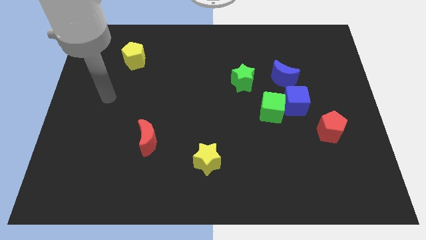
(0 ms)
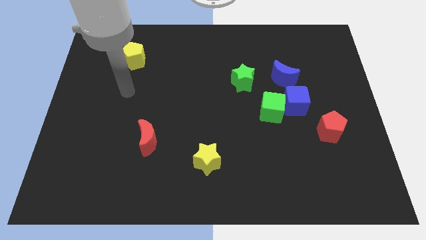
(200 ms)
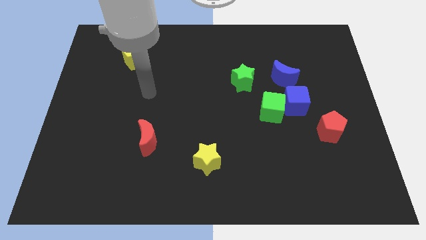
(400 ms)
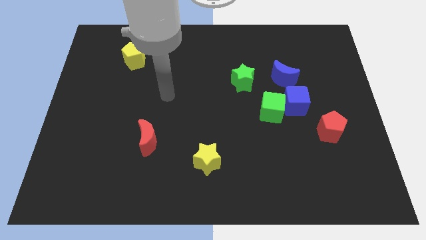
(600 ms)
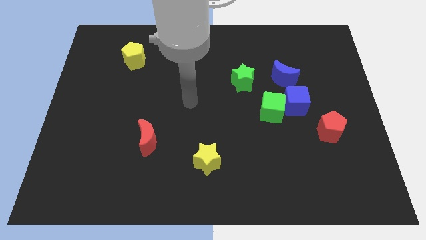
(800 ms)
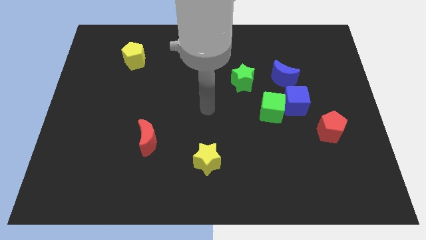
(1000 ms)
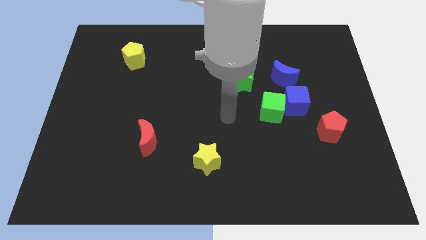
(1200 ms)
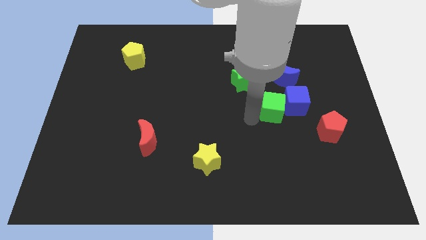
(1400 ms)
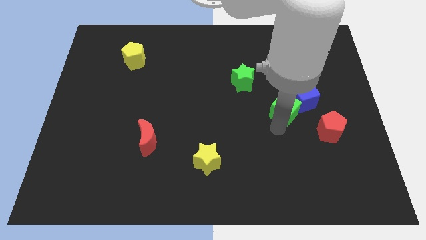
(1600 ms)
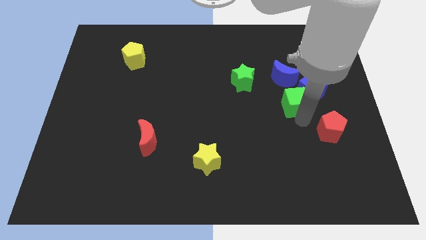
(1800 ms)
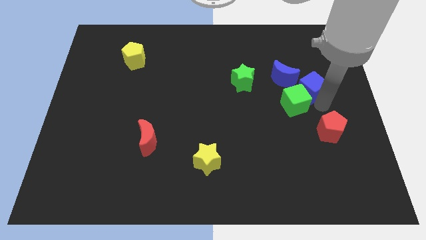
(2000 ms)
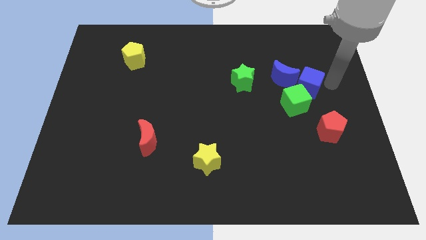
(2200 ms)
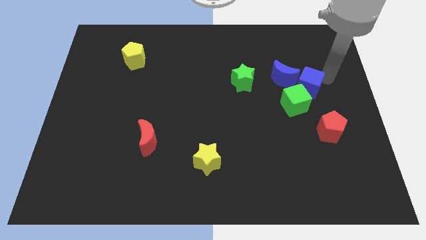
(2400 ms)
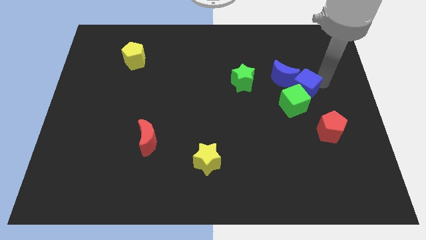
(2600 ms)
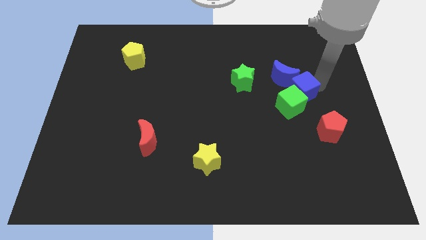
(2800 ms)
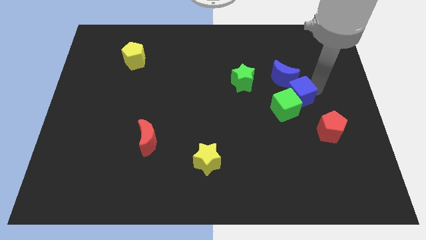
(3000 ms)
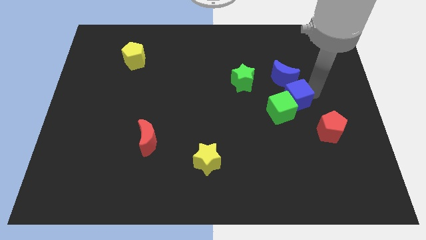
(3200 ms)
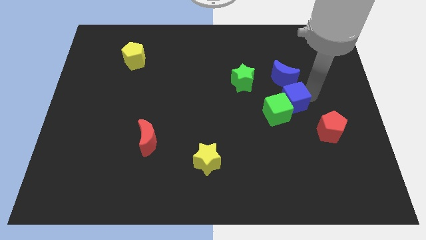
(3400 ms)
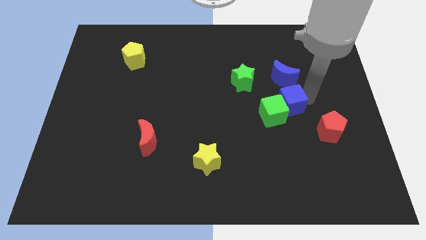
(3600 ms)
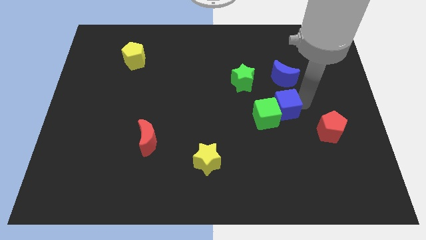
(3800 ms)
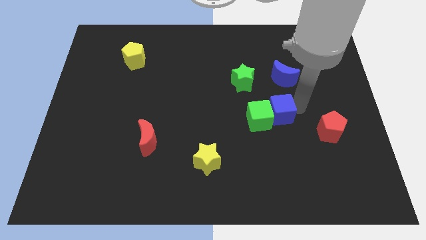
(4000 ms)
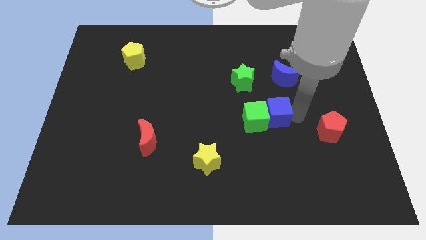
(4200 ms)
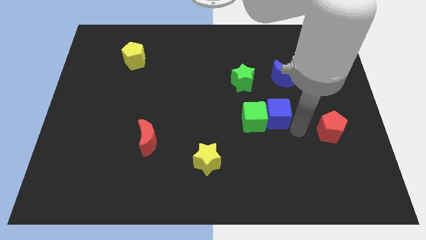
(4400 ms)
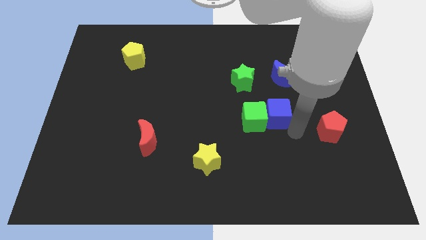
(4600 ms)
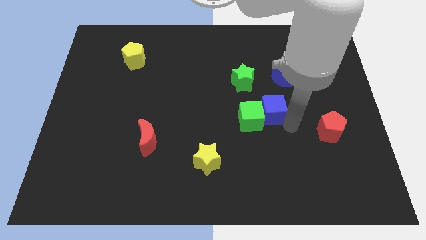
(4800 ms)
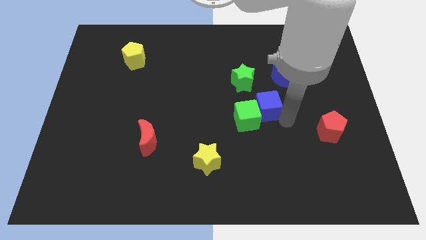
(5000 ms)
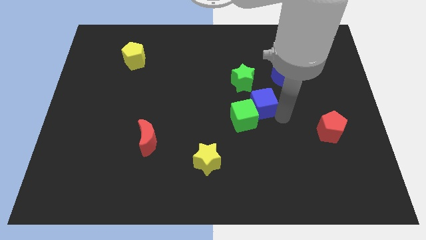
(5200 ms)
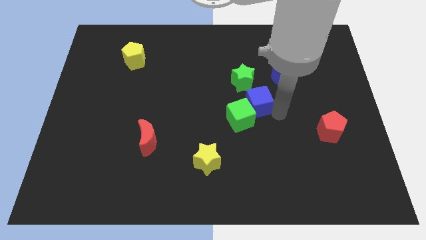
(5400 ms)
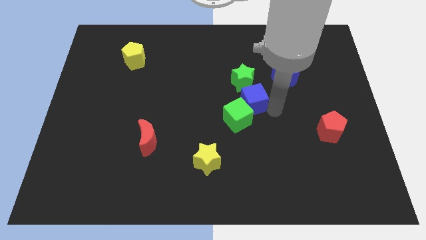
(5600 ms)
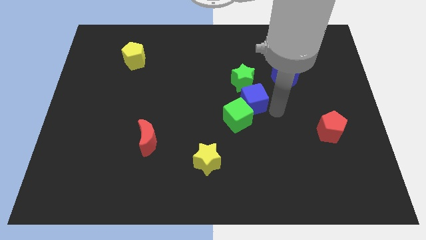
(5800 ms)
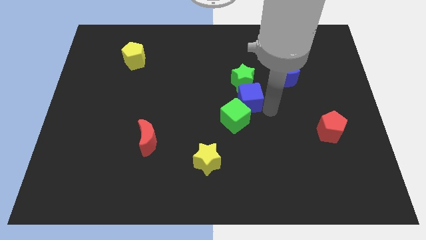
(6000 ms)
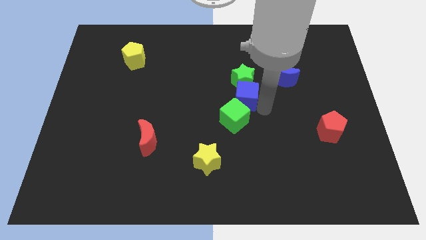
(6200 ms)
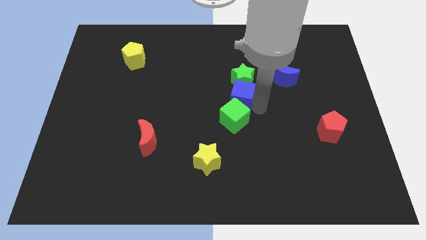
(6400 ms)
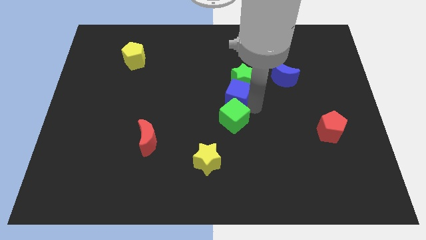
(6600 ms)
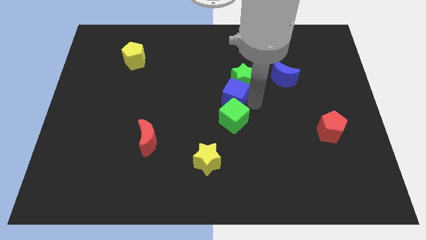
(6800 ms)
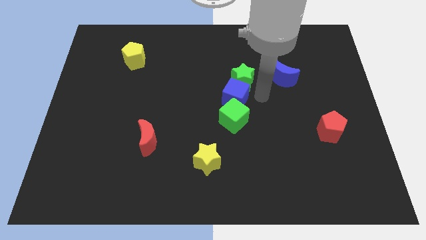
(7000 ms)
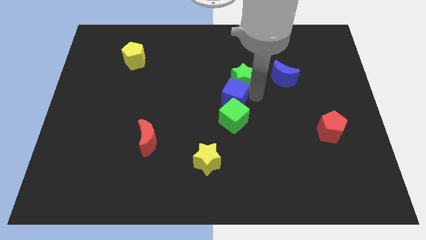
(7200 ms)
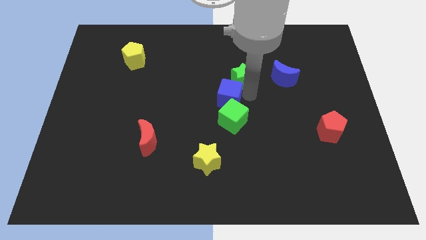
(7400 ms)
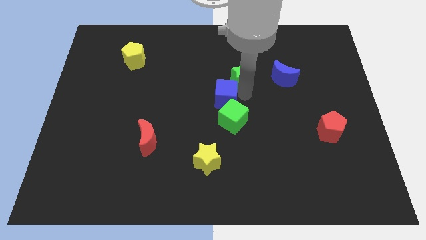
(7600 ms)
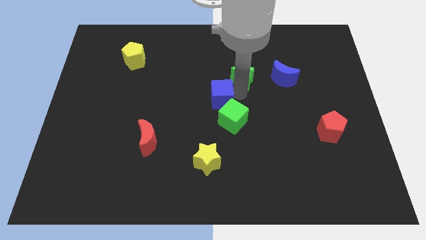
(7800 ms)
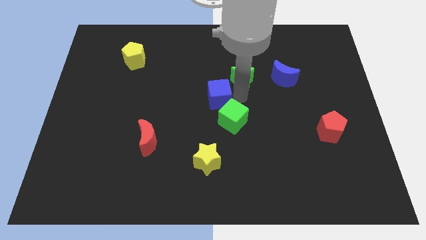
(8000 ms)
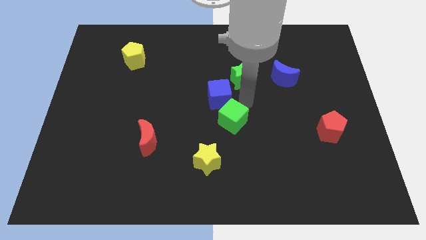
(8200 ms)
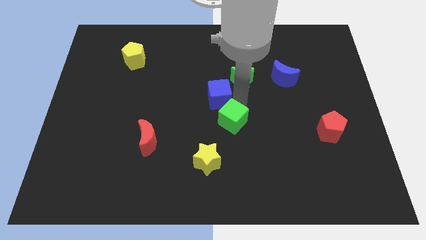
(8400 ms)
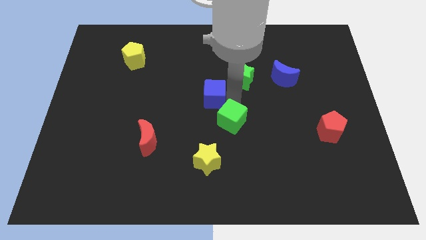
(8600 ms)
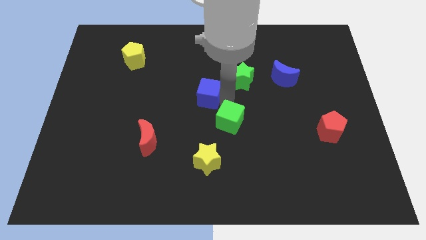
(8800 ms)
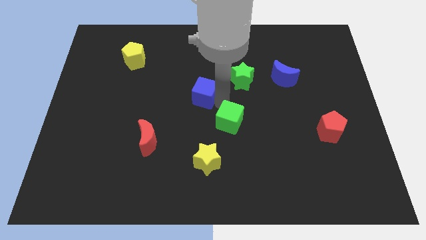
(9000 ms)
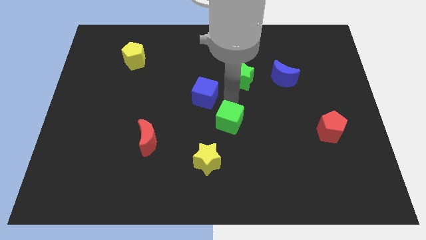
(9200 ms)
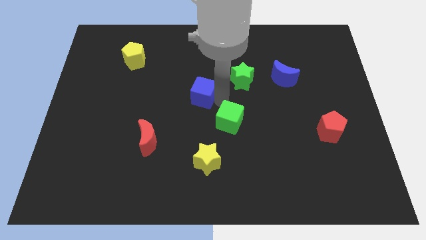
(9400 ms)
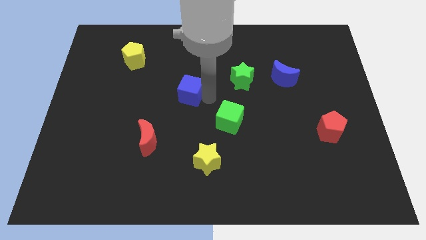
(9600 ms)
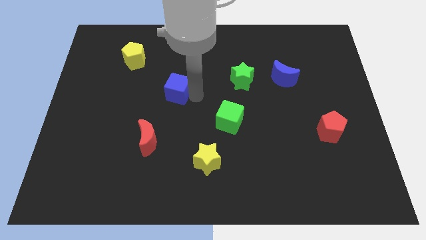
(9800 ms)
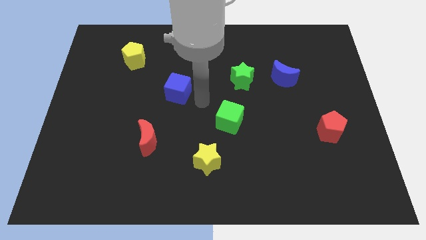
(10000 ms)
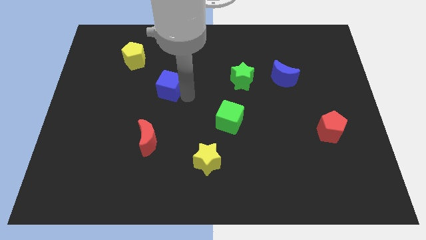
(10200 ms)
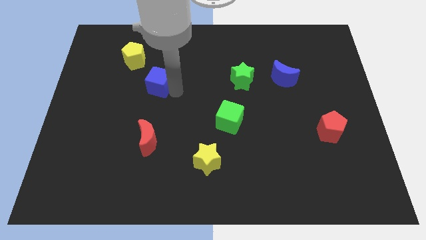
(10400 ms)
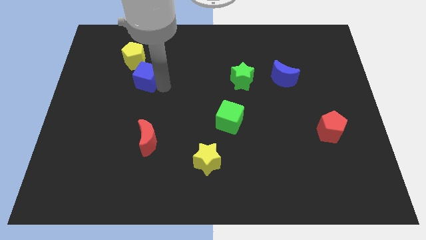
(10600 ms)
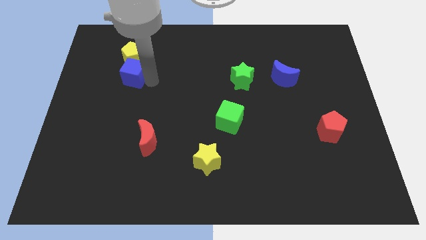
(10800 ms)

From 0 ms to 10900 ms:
put the blue cube to the bottom left of the yellow pentagon
